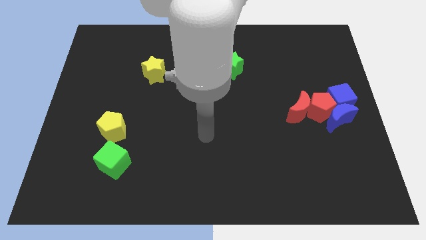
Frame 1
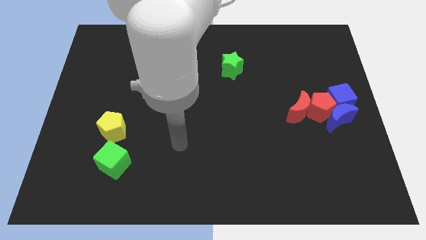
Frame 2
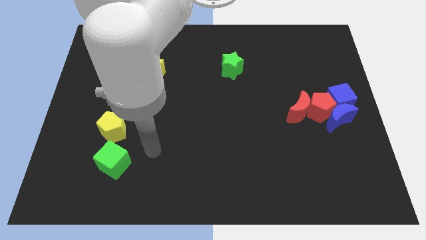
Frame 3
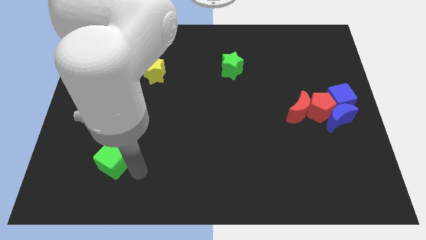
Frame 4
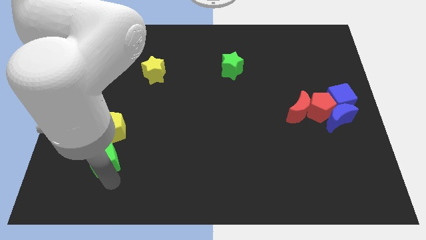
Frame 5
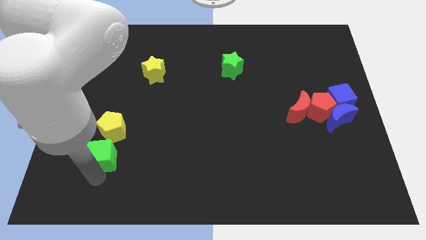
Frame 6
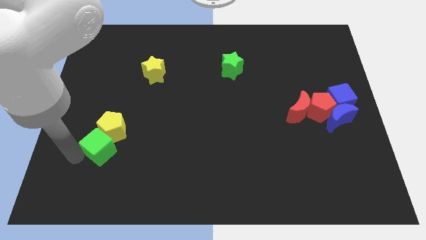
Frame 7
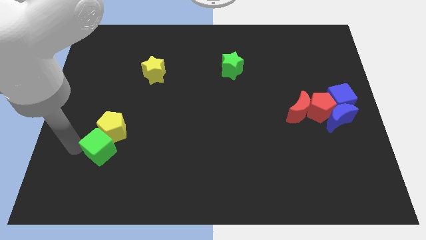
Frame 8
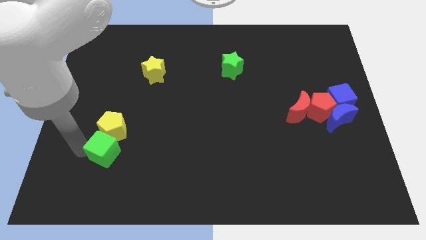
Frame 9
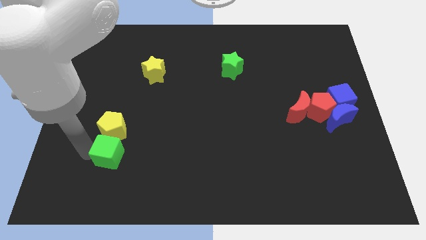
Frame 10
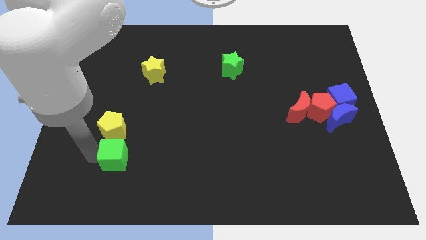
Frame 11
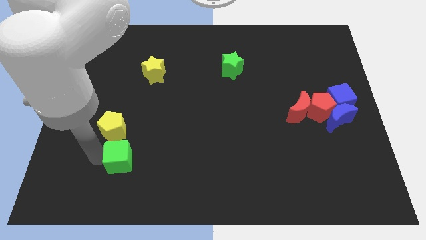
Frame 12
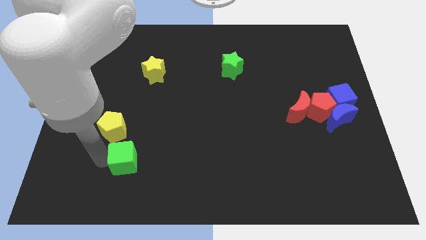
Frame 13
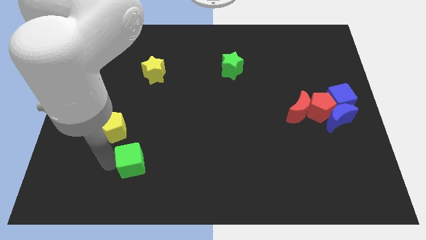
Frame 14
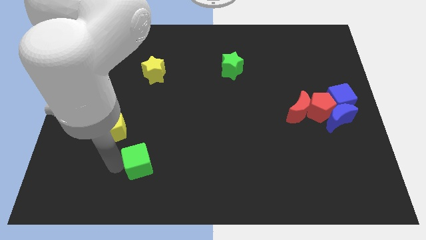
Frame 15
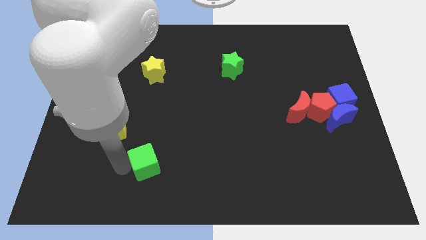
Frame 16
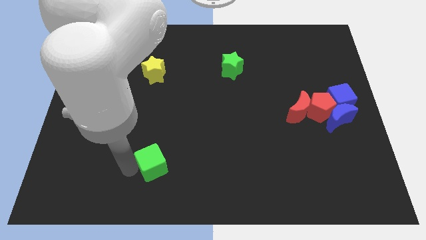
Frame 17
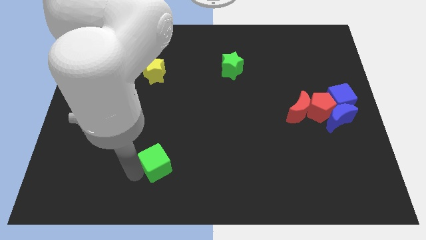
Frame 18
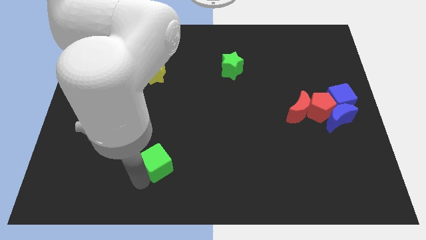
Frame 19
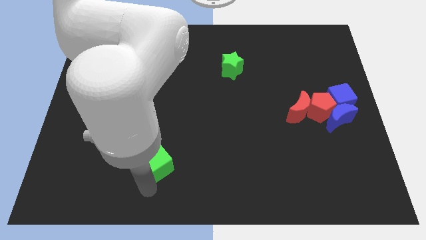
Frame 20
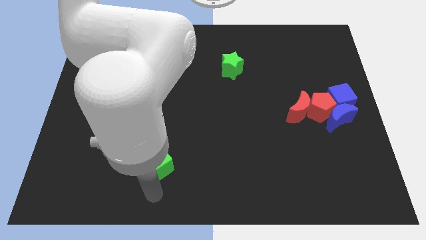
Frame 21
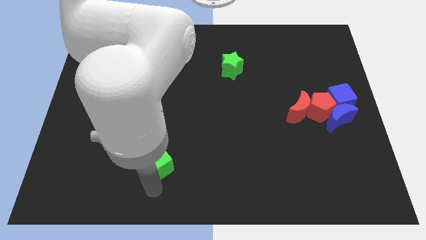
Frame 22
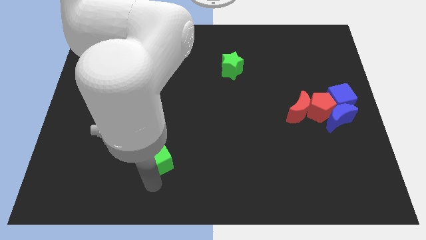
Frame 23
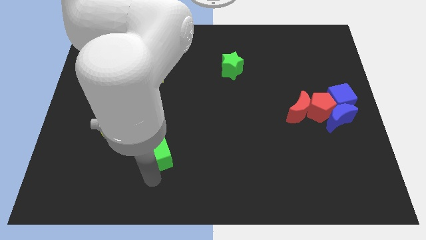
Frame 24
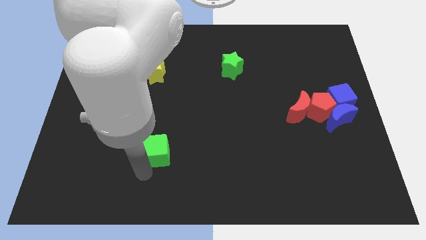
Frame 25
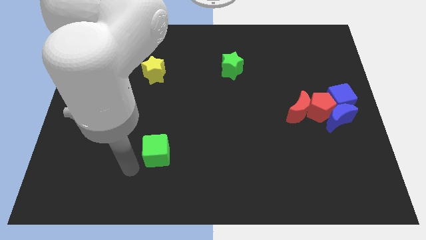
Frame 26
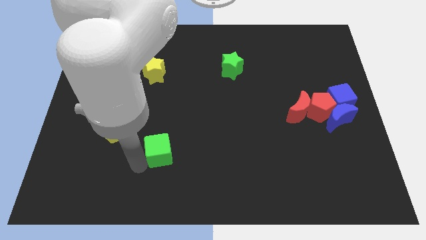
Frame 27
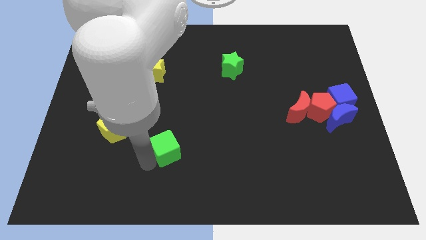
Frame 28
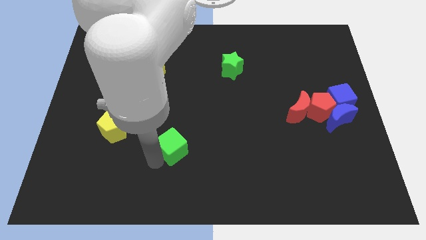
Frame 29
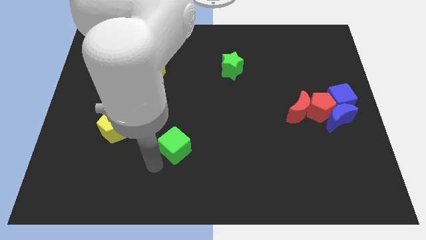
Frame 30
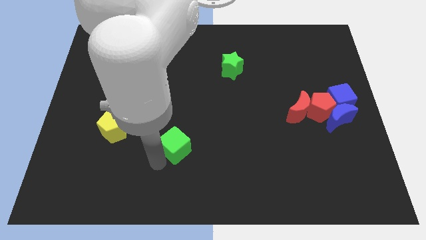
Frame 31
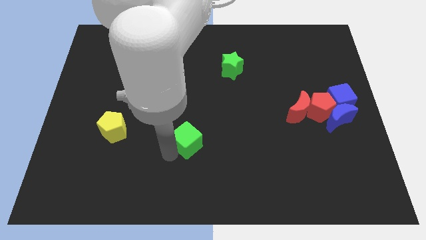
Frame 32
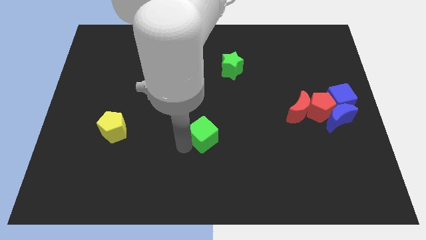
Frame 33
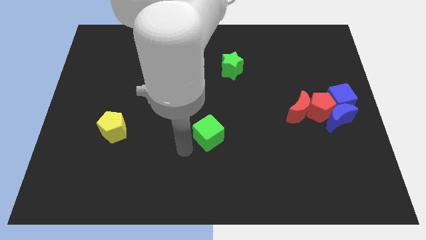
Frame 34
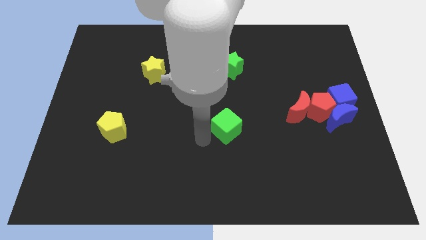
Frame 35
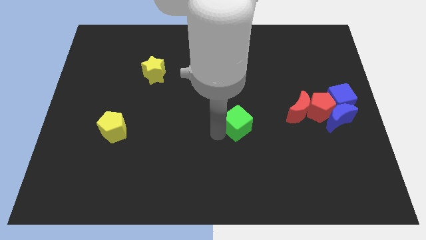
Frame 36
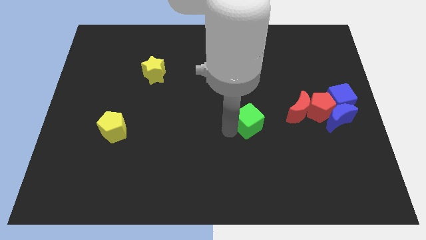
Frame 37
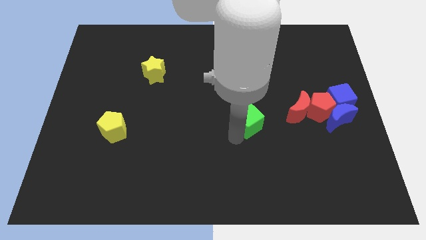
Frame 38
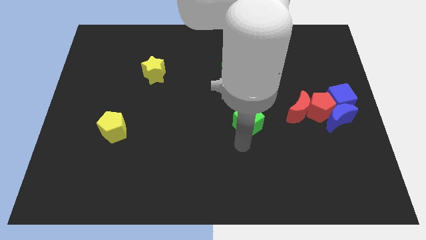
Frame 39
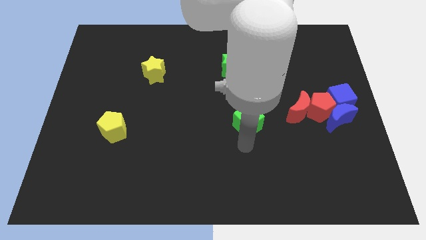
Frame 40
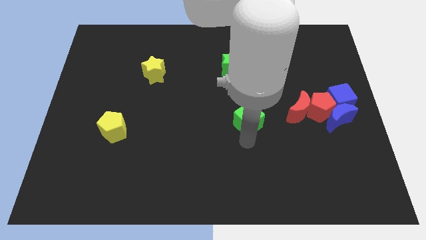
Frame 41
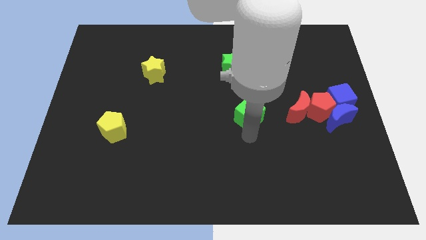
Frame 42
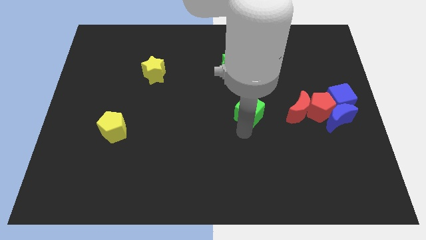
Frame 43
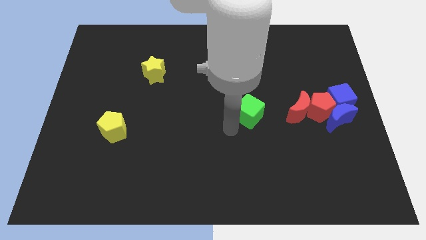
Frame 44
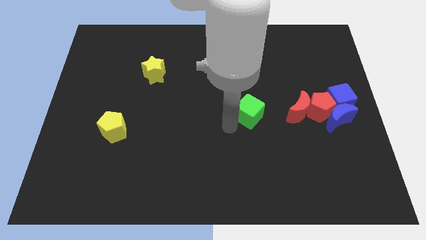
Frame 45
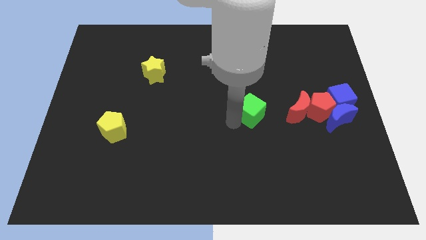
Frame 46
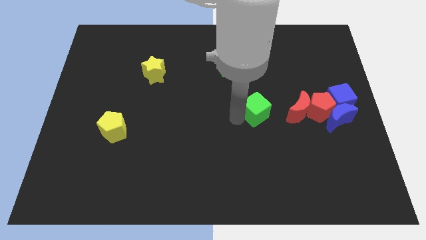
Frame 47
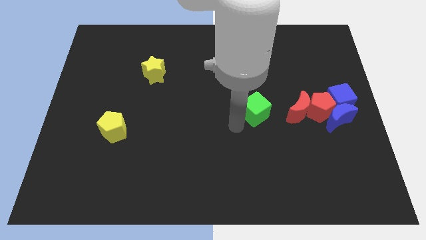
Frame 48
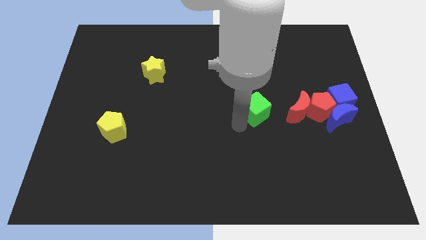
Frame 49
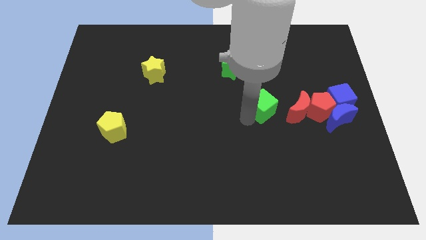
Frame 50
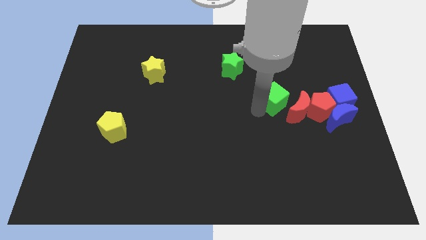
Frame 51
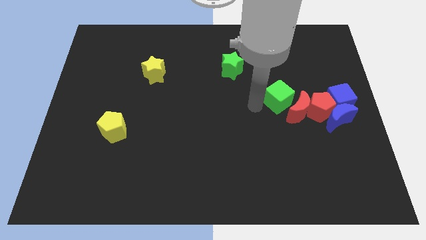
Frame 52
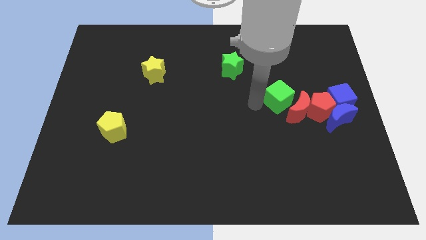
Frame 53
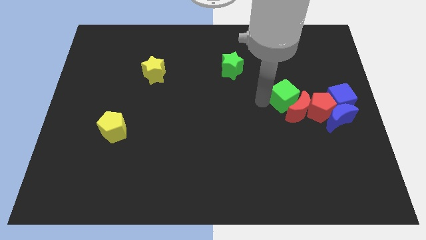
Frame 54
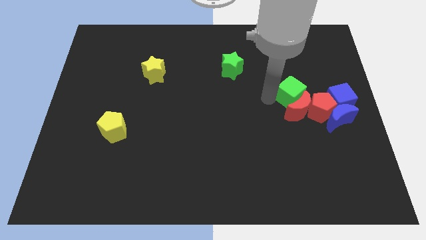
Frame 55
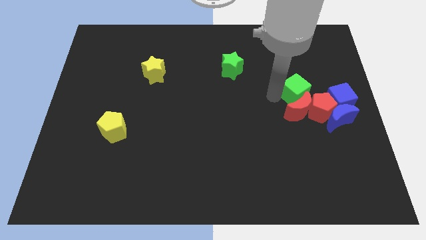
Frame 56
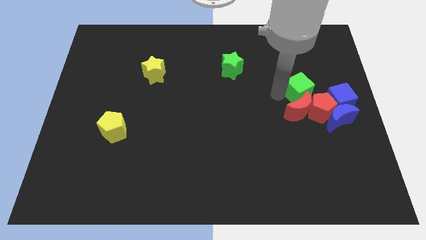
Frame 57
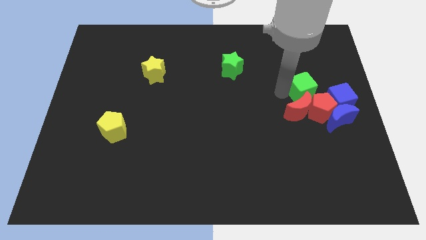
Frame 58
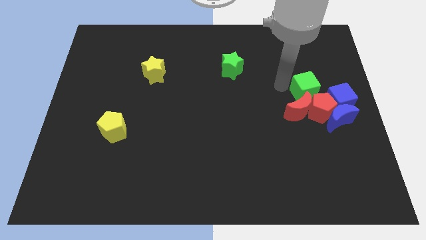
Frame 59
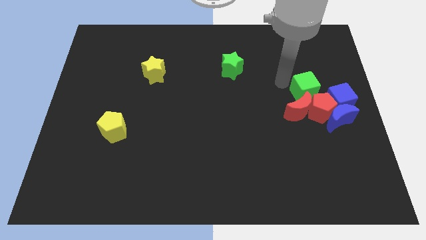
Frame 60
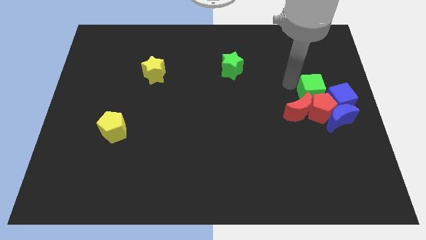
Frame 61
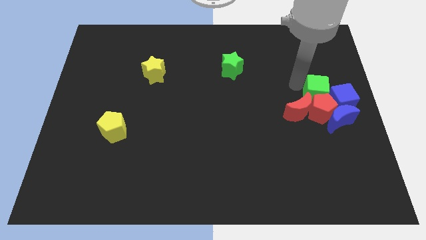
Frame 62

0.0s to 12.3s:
put the green cube next to the blue cube

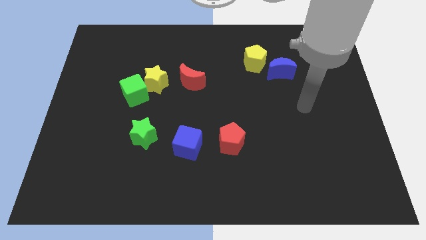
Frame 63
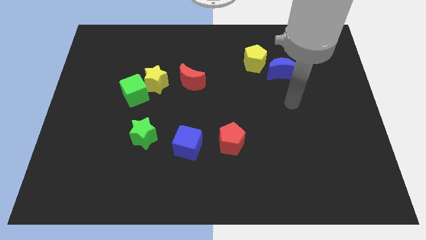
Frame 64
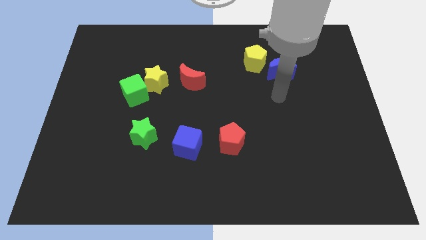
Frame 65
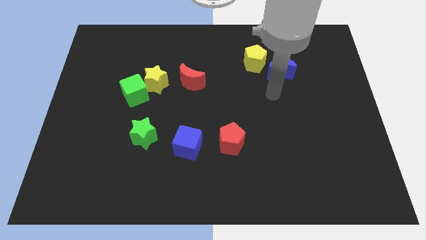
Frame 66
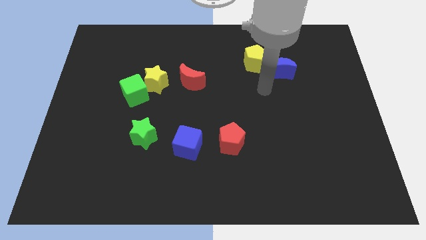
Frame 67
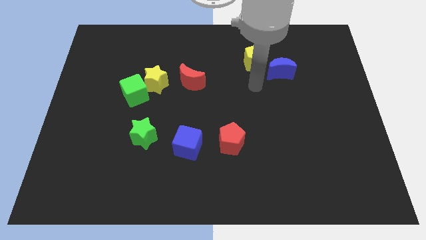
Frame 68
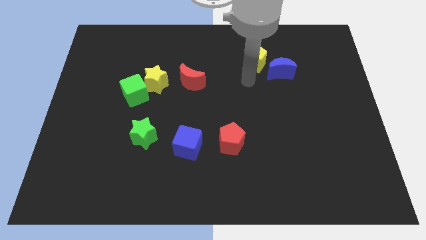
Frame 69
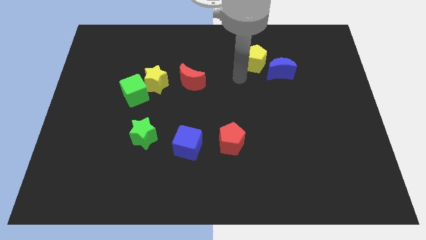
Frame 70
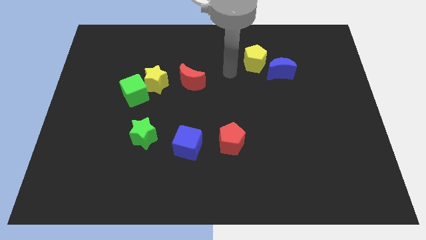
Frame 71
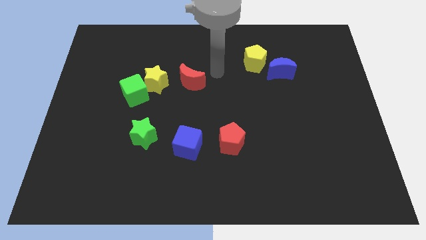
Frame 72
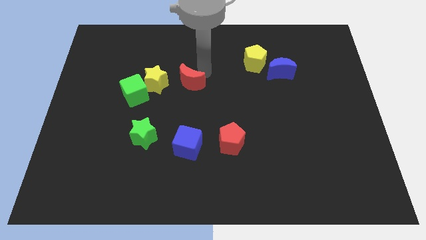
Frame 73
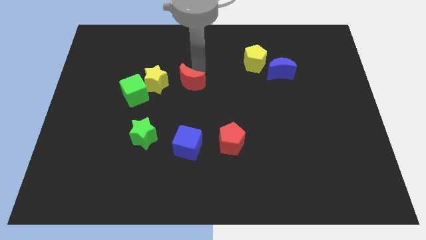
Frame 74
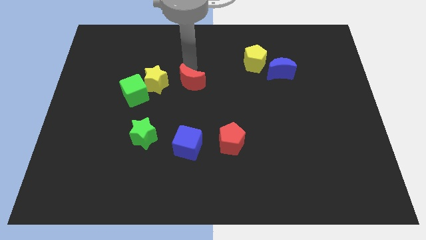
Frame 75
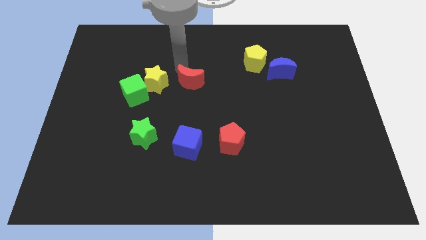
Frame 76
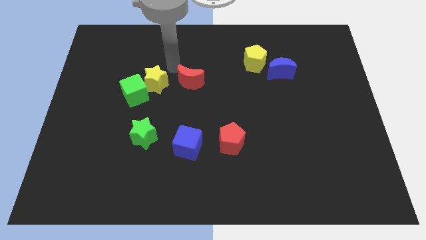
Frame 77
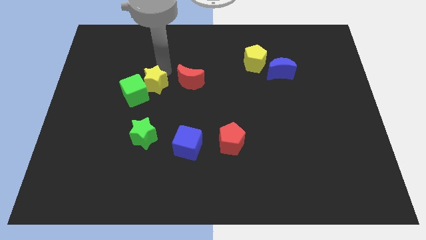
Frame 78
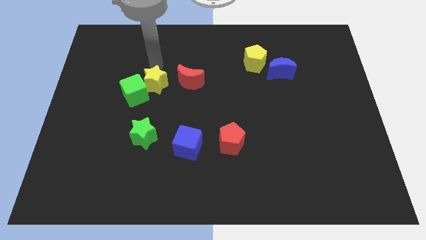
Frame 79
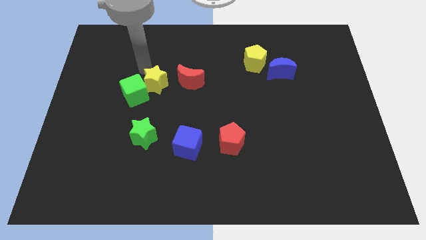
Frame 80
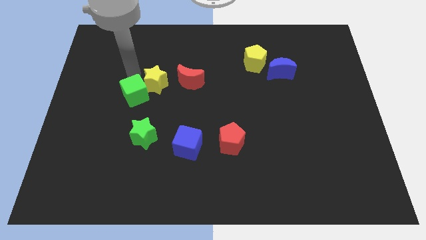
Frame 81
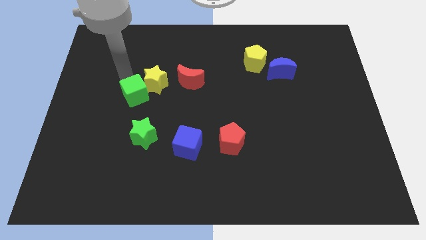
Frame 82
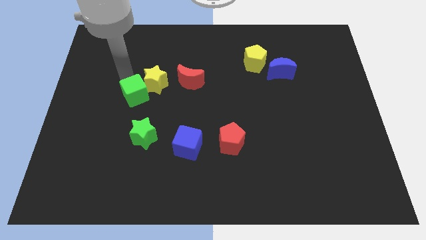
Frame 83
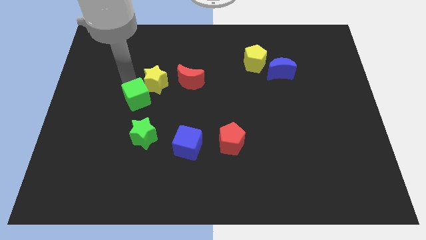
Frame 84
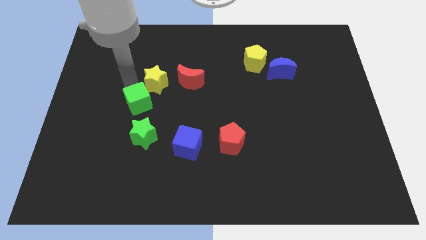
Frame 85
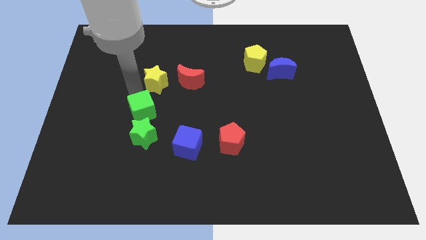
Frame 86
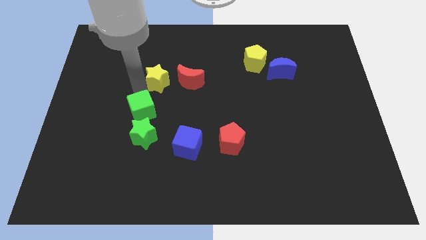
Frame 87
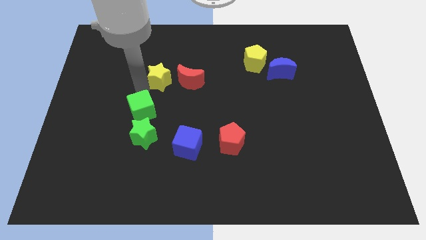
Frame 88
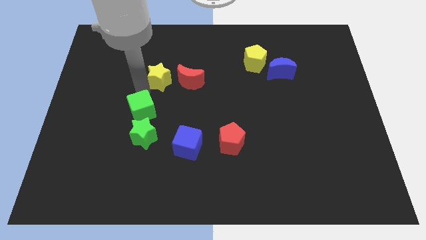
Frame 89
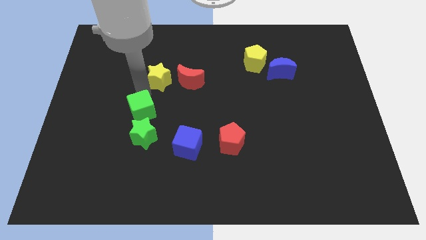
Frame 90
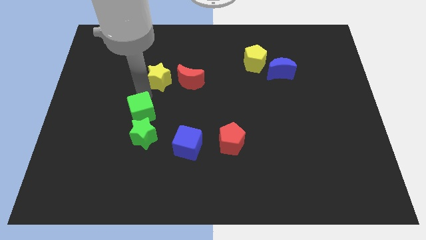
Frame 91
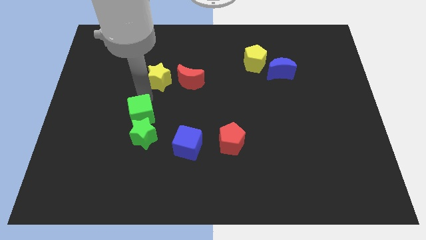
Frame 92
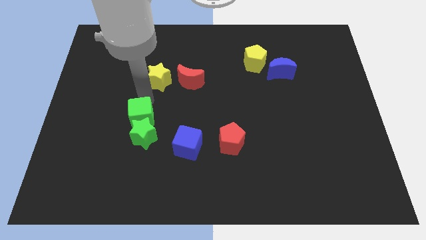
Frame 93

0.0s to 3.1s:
put the green cube to the green star
